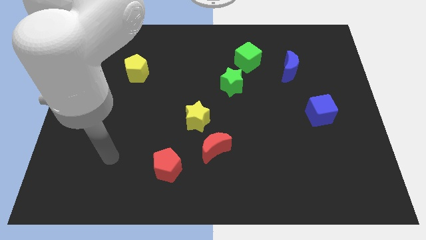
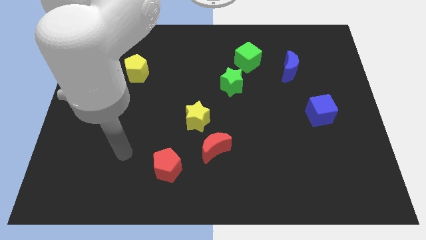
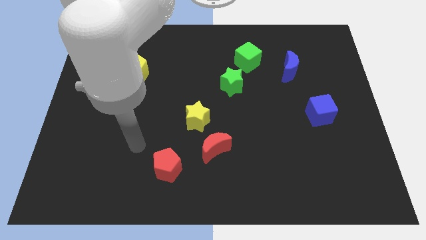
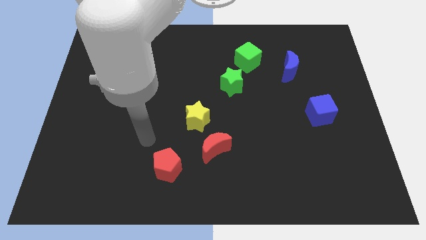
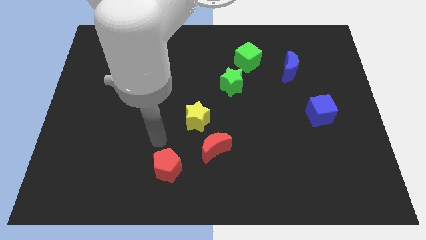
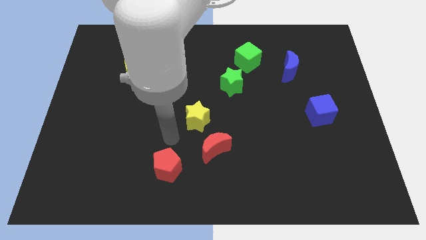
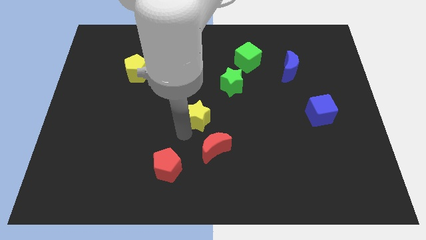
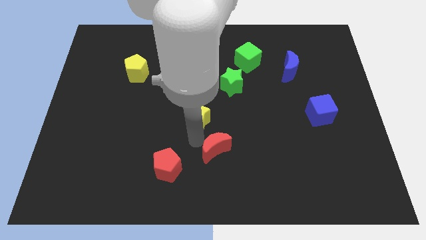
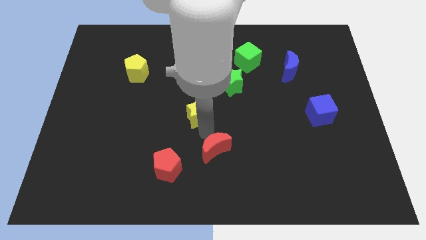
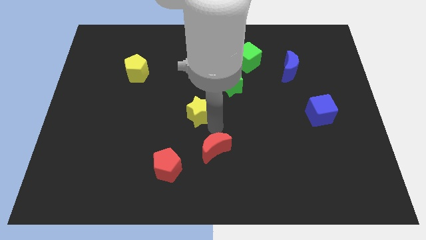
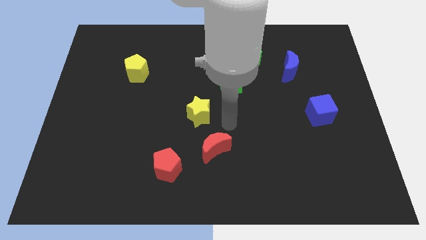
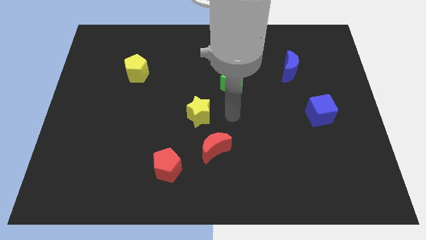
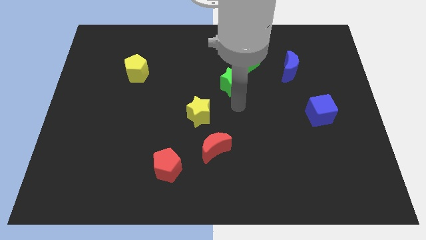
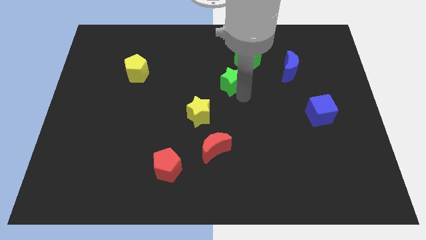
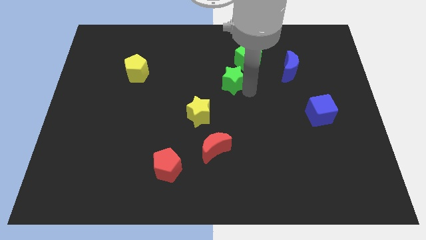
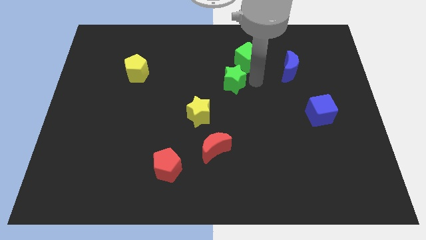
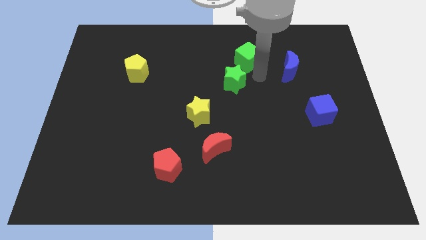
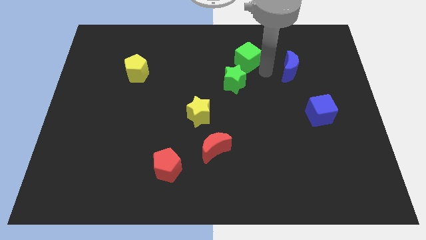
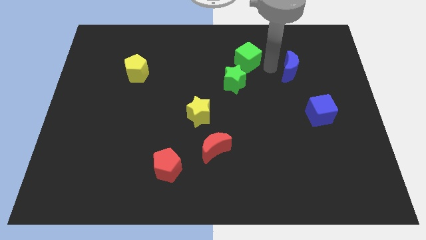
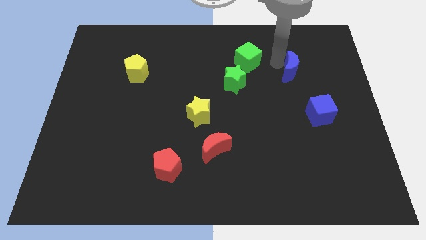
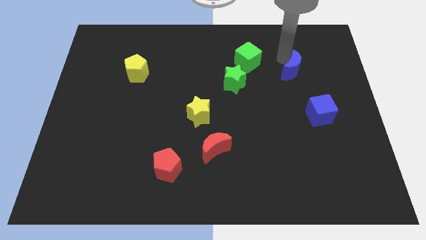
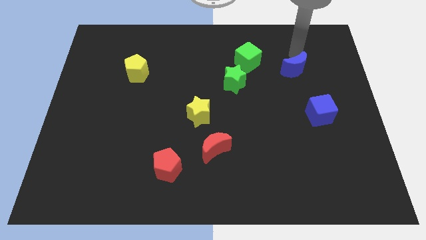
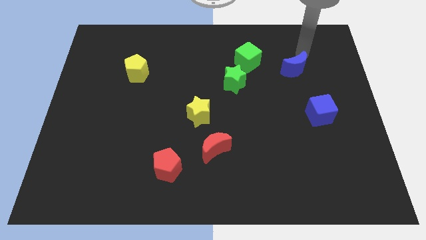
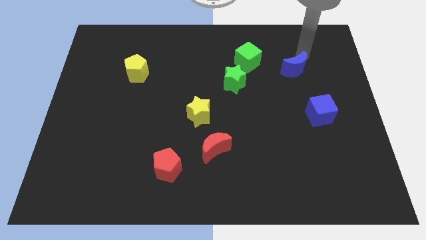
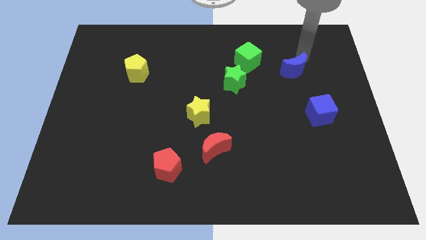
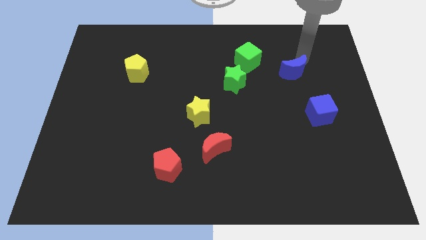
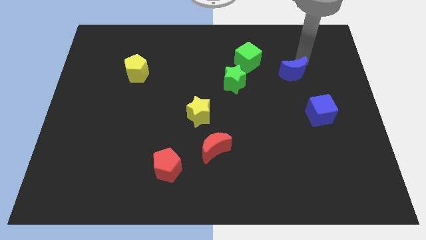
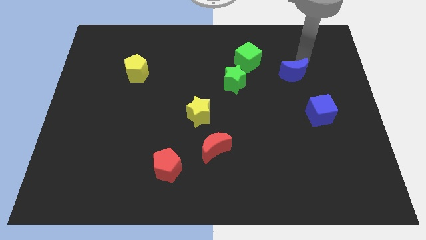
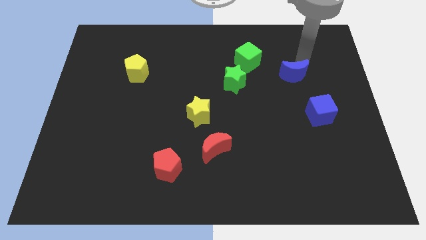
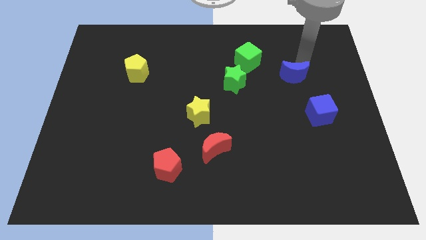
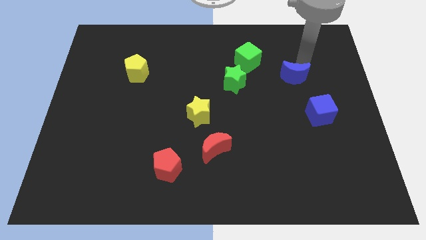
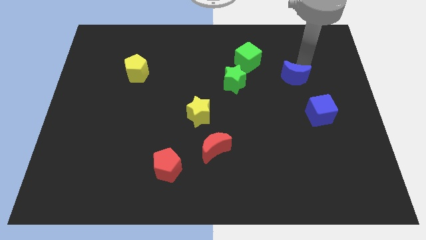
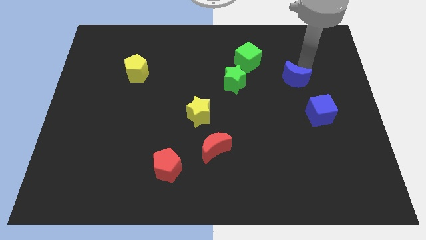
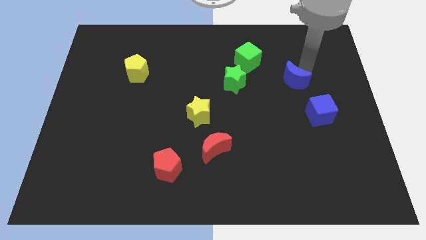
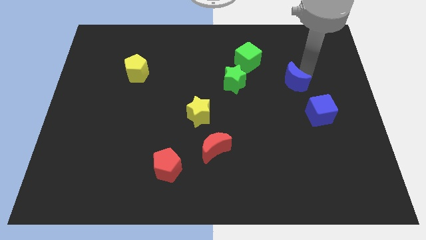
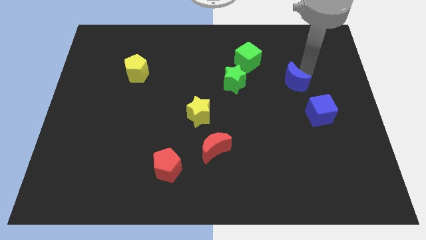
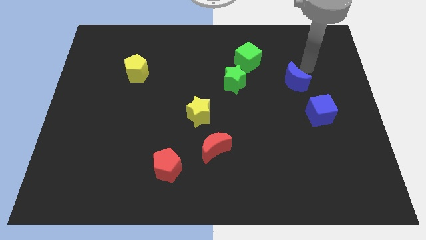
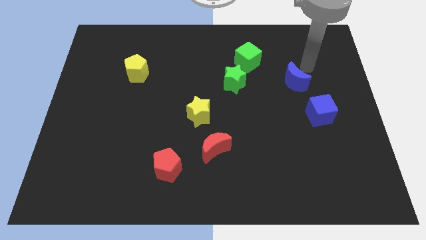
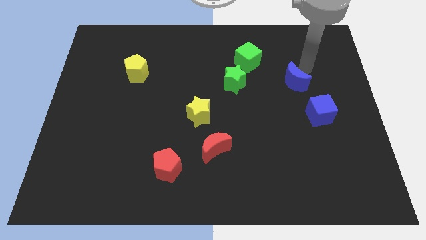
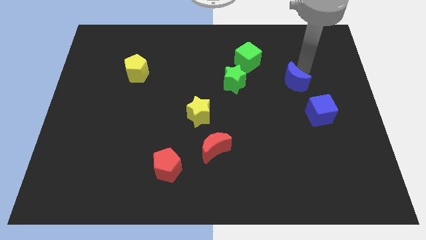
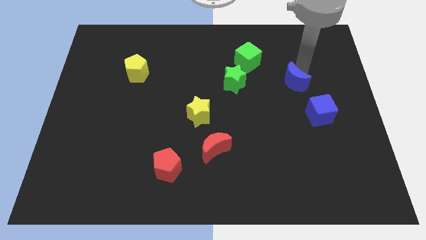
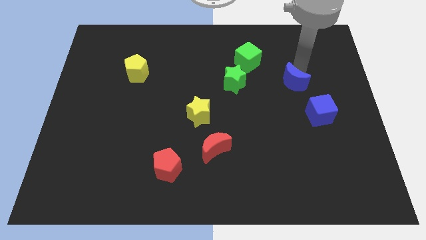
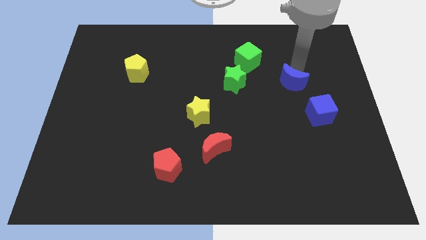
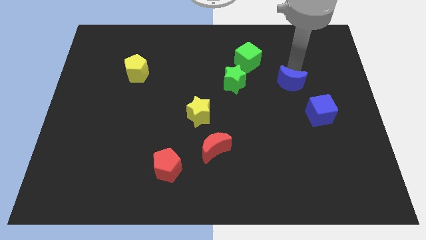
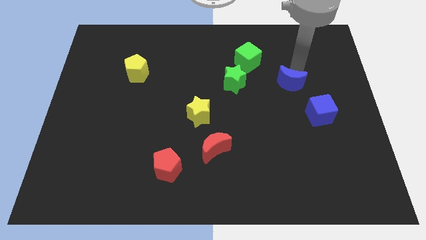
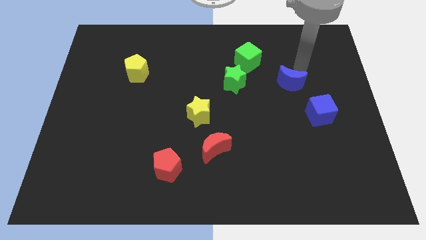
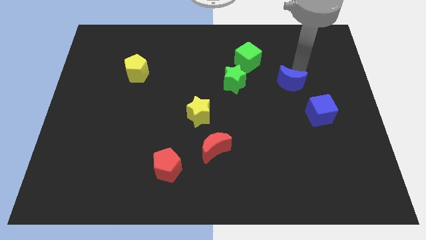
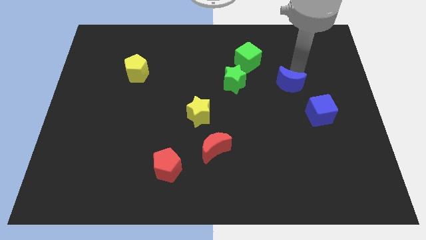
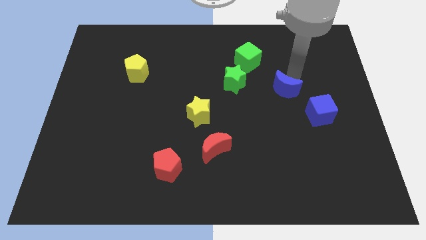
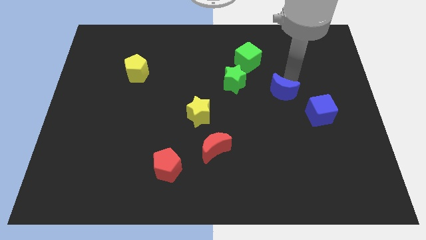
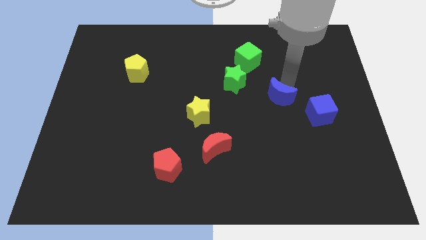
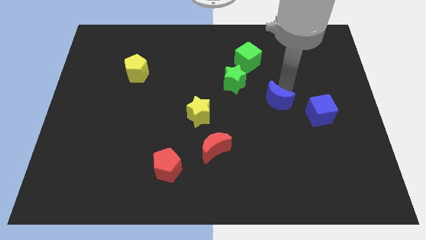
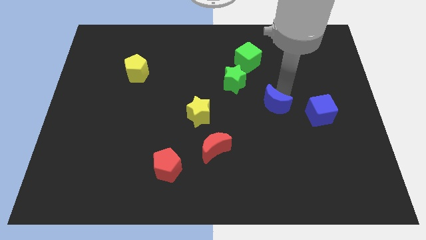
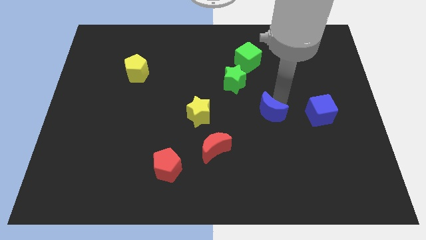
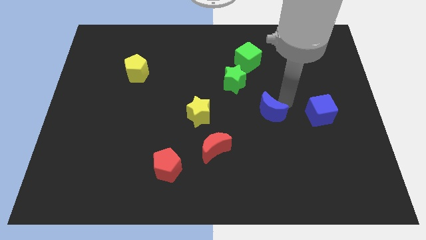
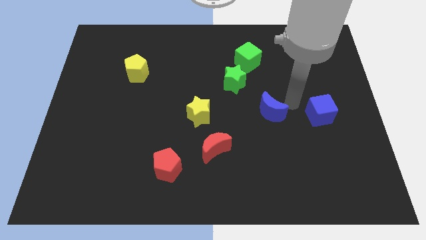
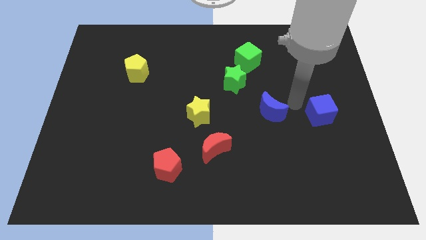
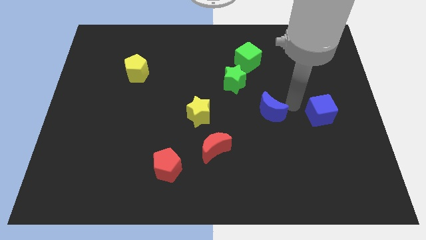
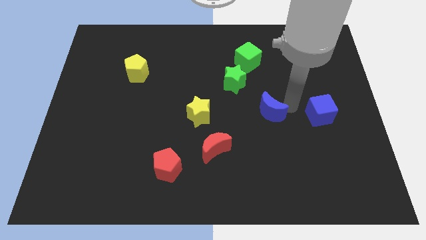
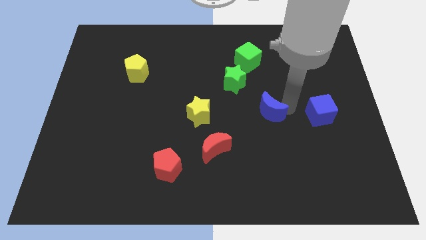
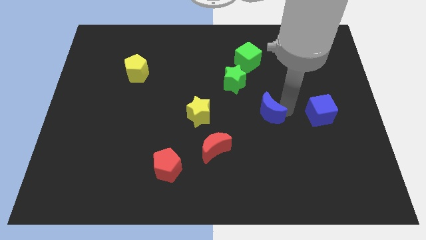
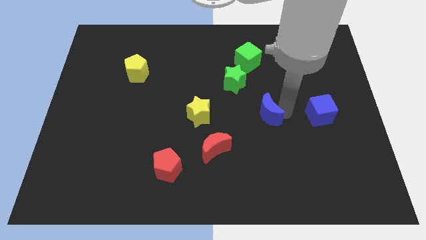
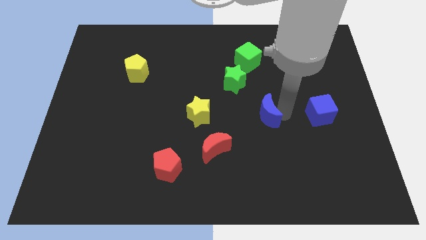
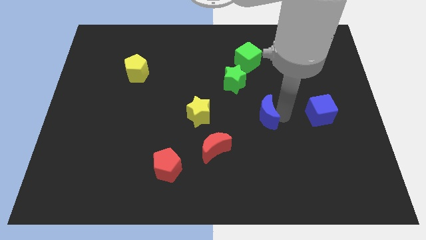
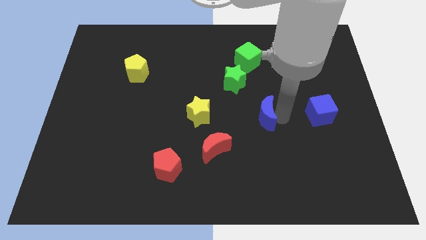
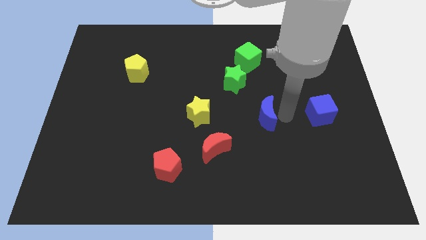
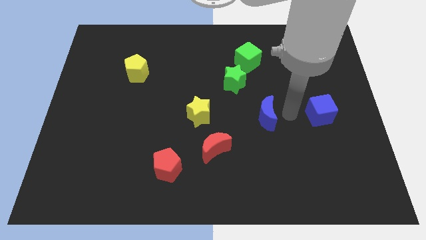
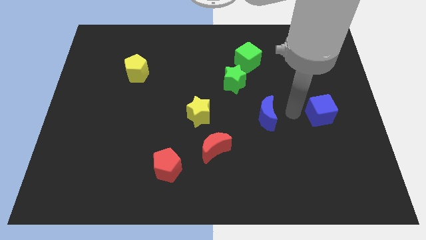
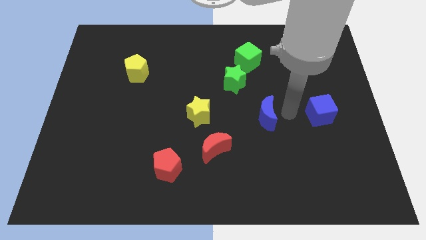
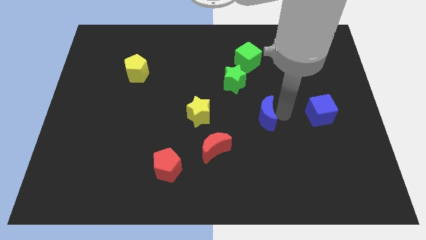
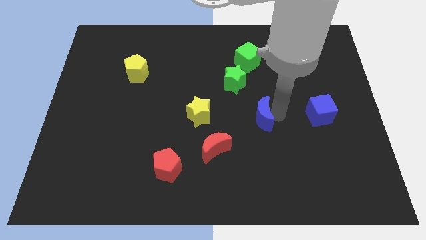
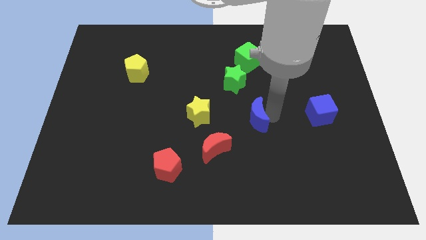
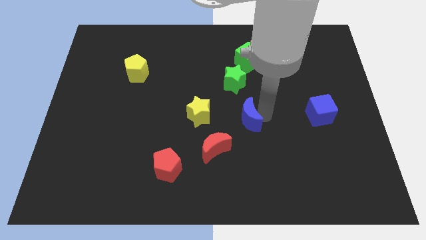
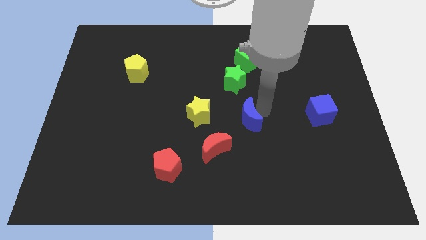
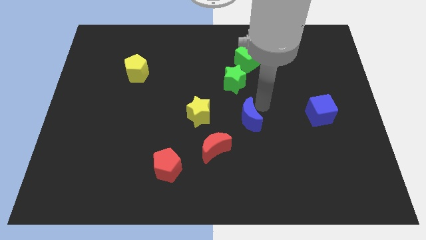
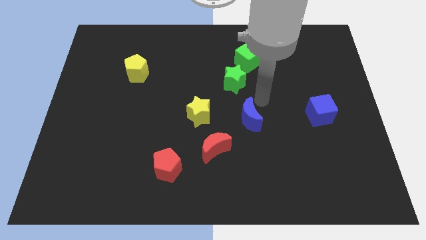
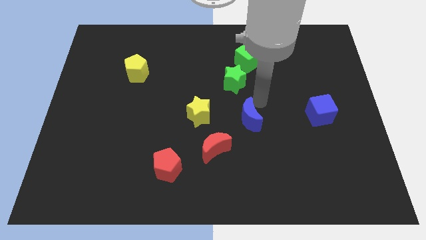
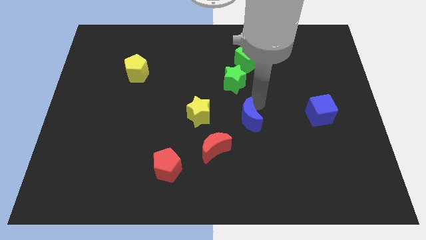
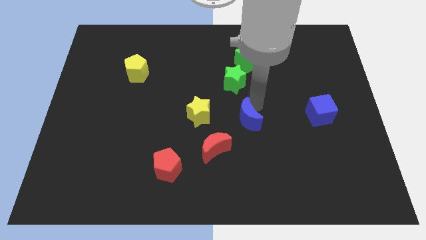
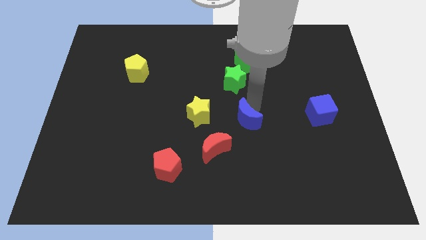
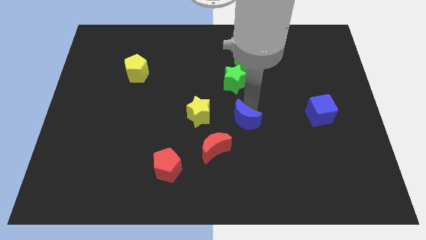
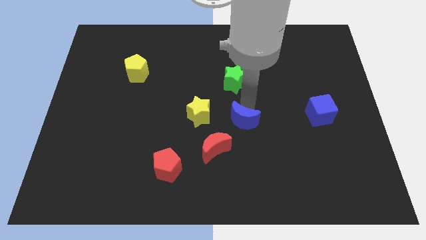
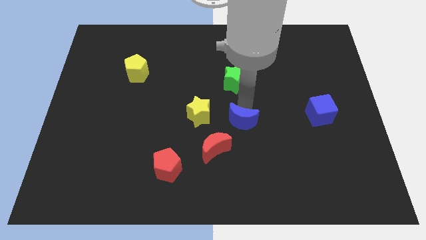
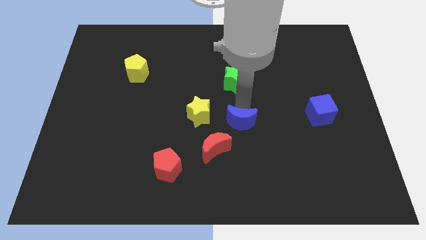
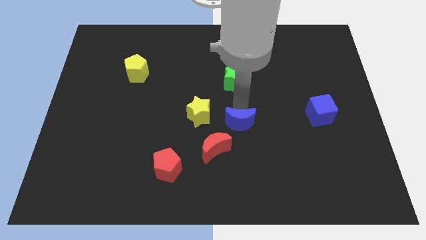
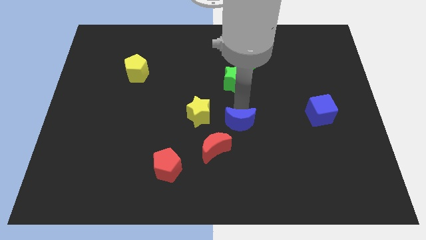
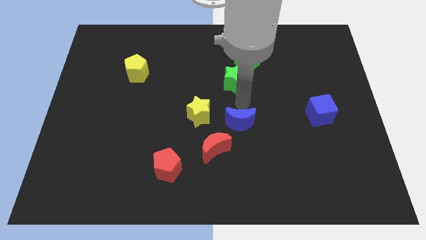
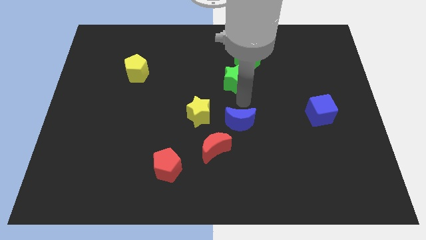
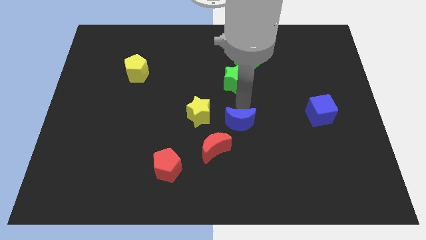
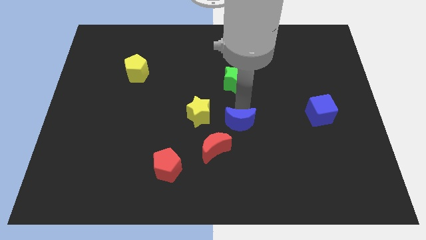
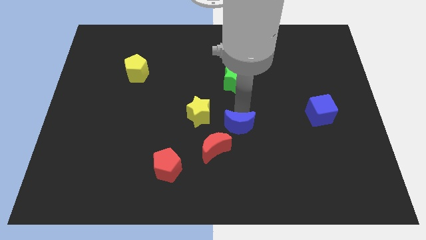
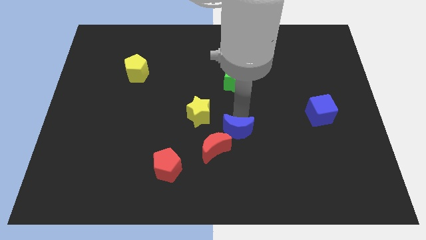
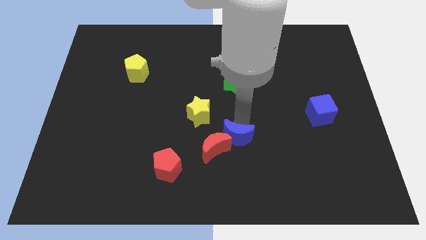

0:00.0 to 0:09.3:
move the blue moon close to the red moon
